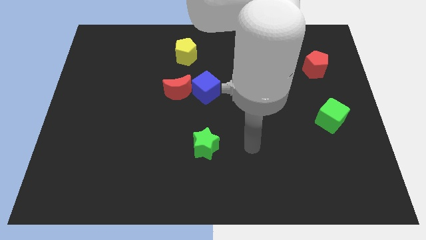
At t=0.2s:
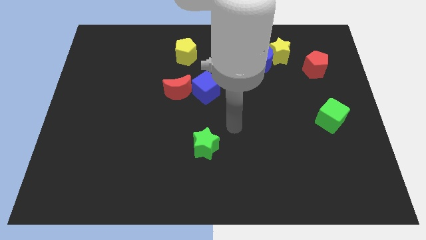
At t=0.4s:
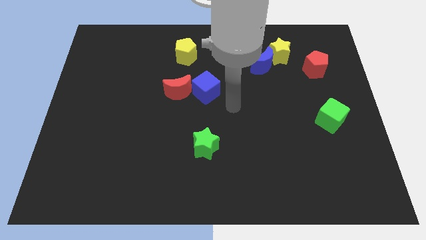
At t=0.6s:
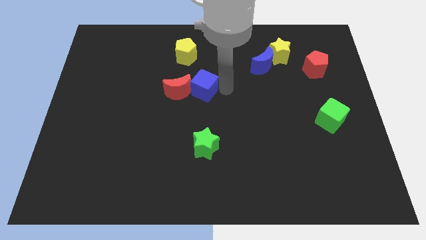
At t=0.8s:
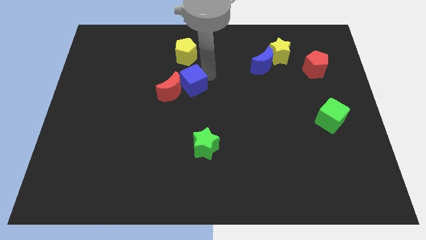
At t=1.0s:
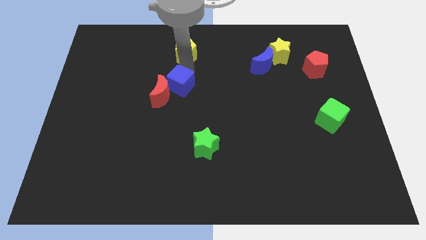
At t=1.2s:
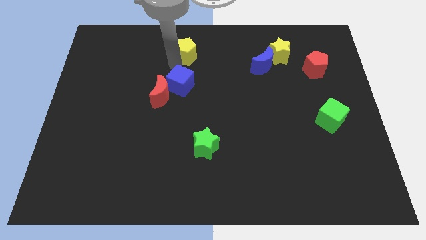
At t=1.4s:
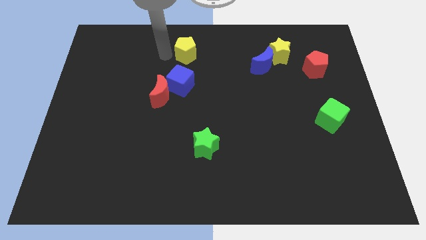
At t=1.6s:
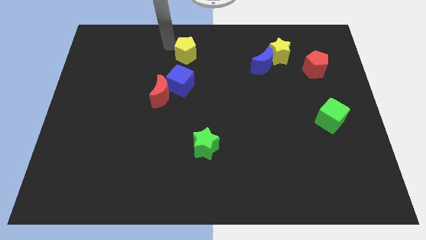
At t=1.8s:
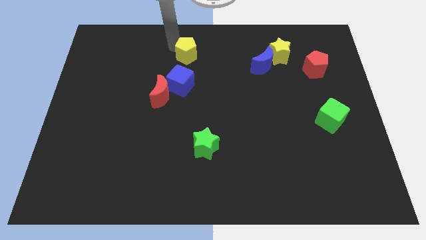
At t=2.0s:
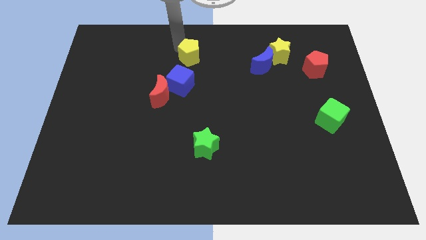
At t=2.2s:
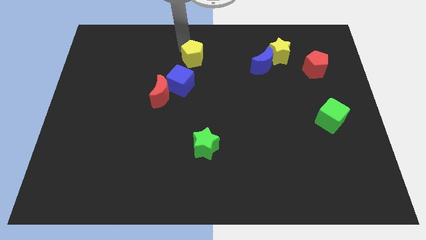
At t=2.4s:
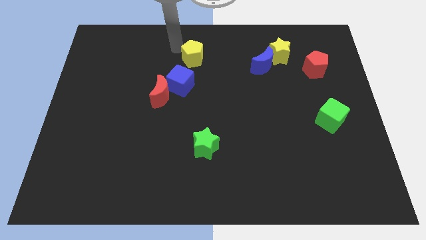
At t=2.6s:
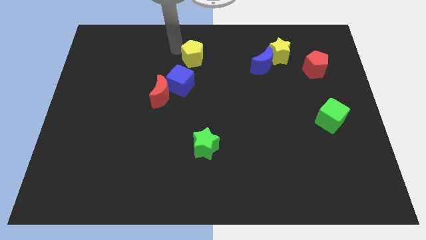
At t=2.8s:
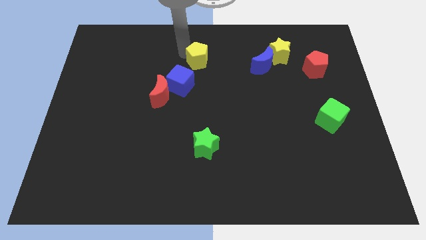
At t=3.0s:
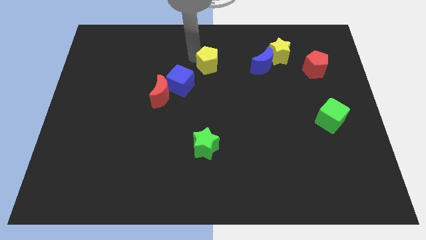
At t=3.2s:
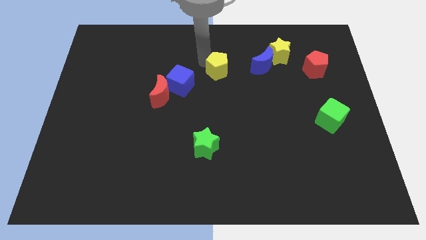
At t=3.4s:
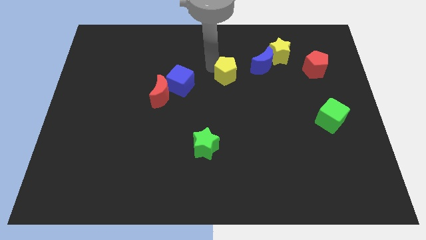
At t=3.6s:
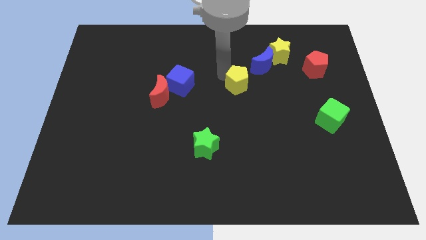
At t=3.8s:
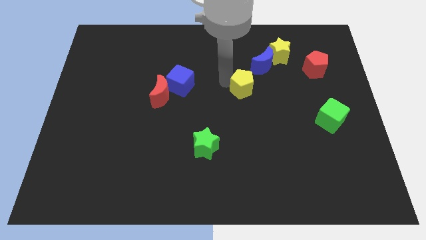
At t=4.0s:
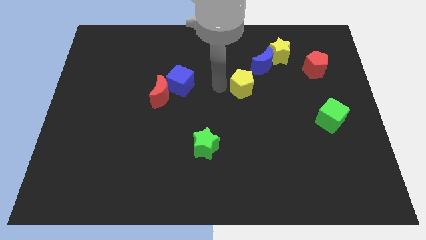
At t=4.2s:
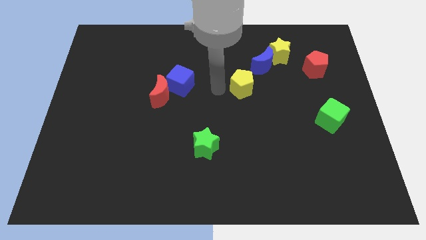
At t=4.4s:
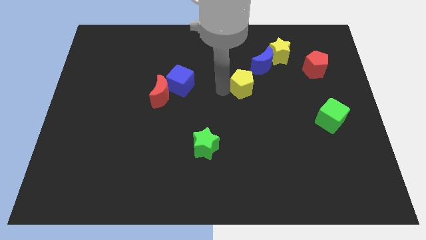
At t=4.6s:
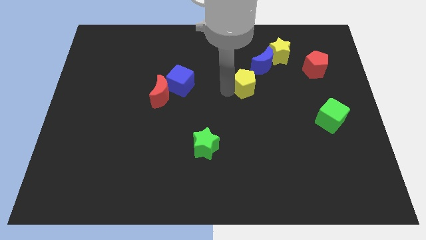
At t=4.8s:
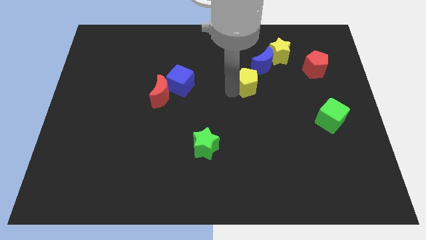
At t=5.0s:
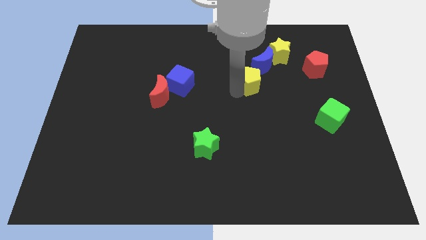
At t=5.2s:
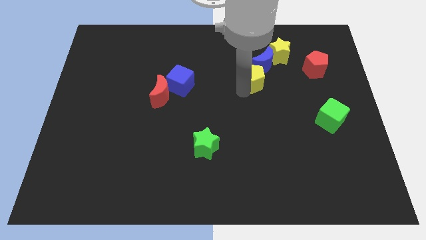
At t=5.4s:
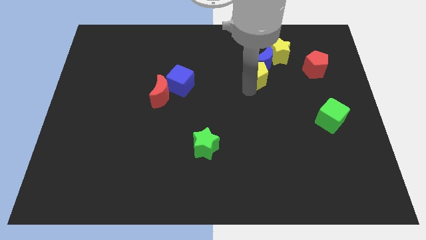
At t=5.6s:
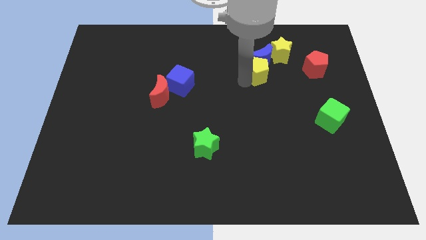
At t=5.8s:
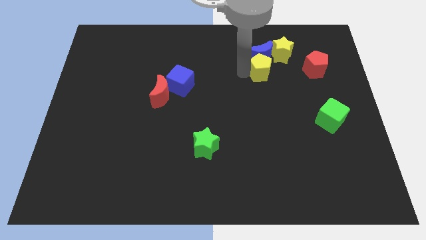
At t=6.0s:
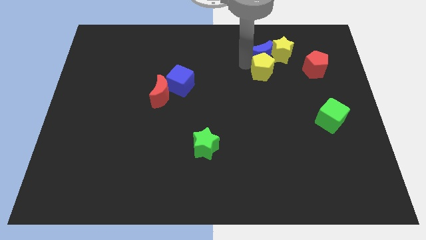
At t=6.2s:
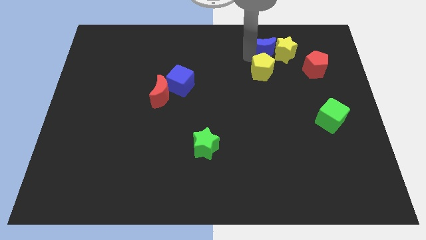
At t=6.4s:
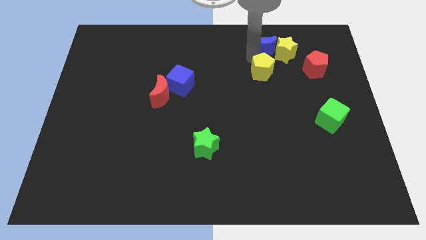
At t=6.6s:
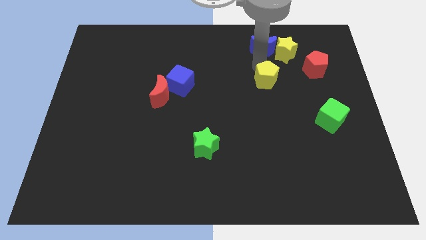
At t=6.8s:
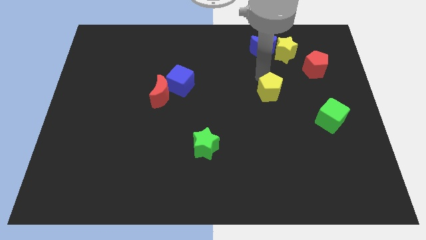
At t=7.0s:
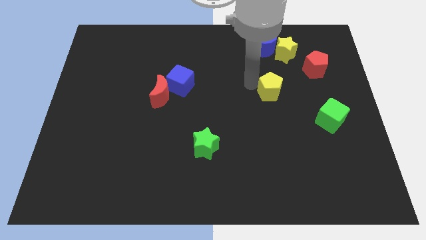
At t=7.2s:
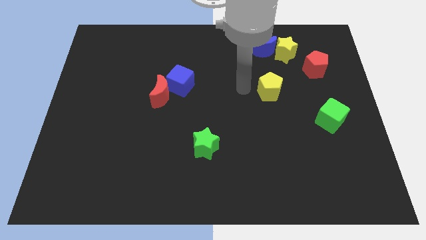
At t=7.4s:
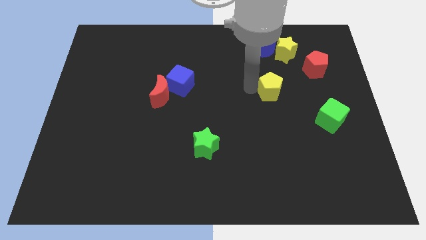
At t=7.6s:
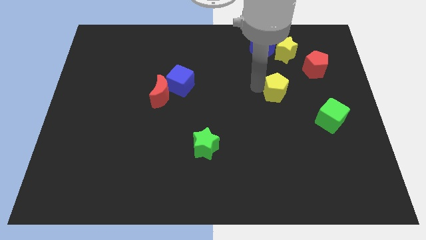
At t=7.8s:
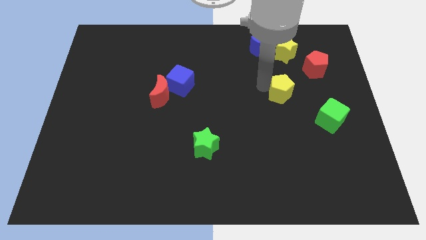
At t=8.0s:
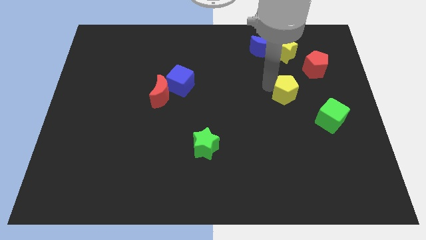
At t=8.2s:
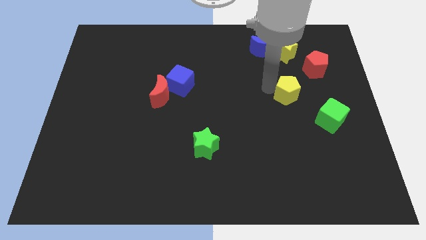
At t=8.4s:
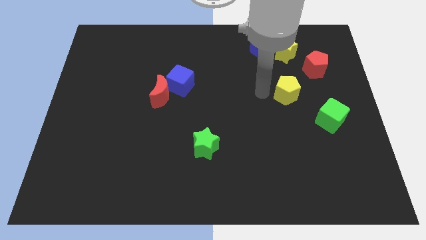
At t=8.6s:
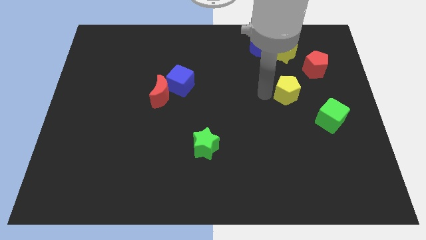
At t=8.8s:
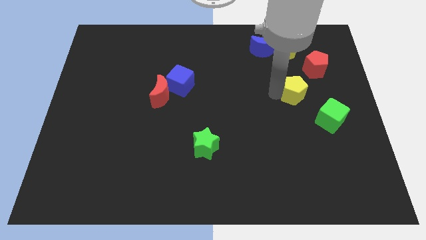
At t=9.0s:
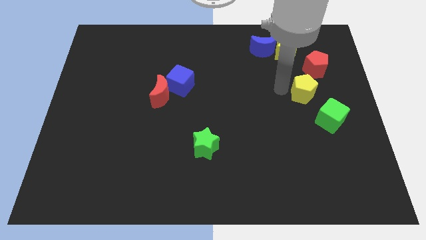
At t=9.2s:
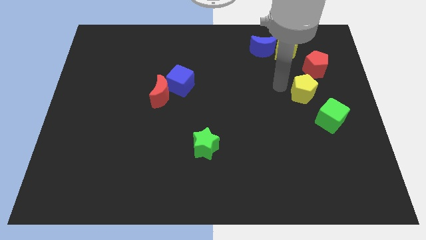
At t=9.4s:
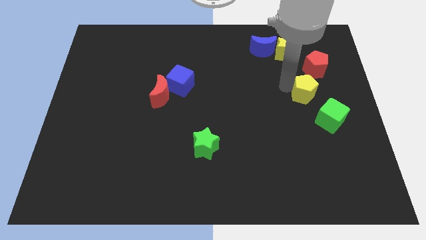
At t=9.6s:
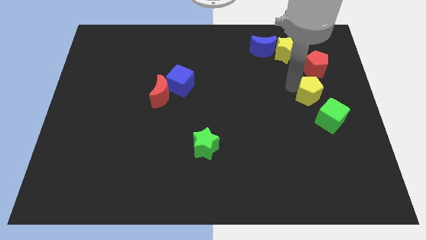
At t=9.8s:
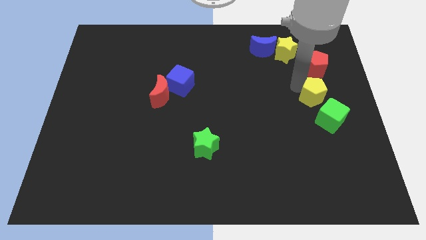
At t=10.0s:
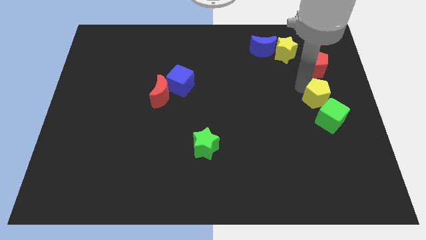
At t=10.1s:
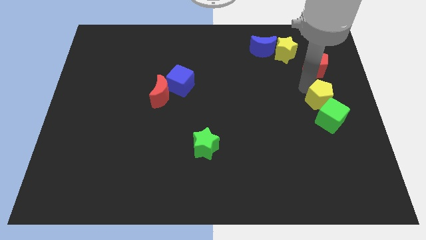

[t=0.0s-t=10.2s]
slide the yellow pentagon to the center right

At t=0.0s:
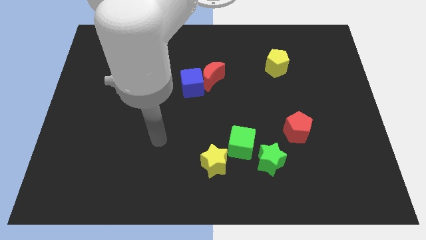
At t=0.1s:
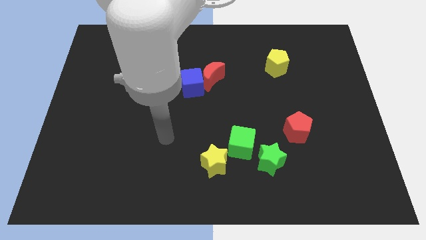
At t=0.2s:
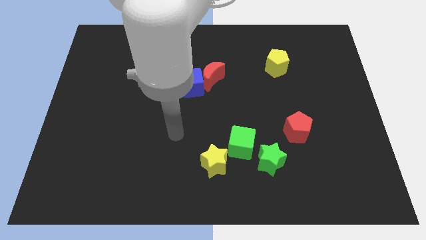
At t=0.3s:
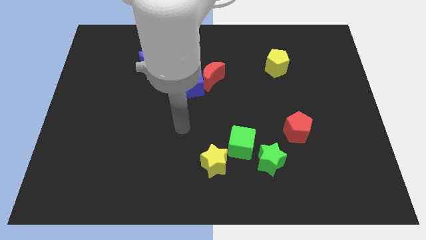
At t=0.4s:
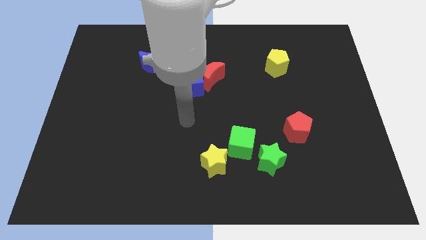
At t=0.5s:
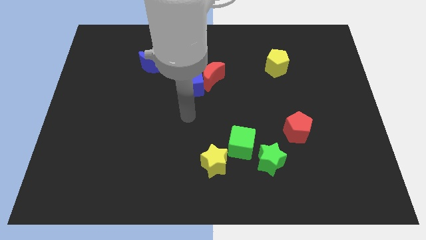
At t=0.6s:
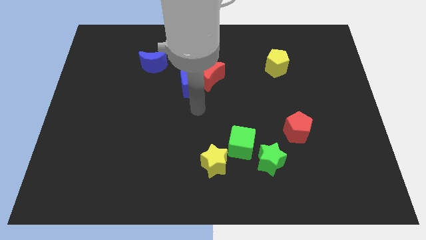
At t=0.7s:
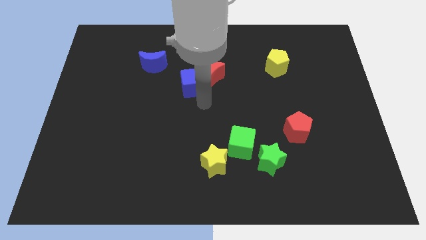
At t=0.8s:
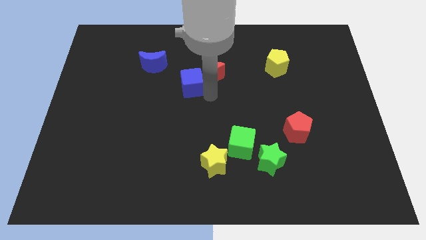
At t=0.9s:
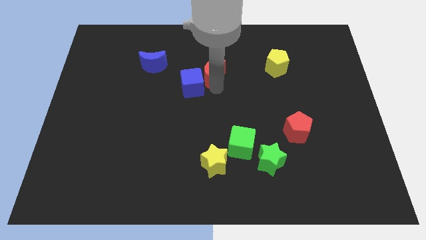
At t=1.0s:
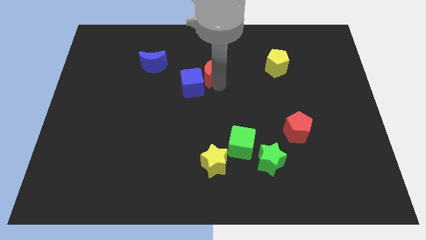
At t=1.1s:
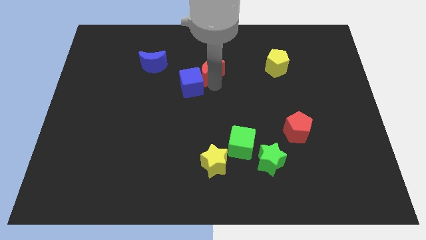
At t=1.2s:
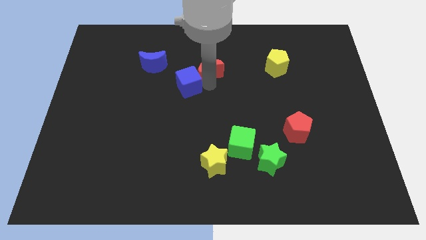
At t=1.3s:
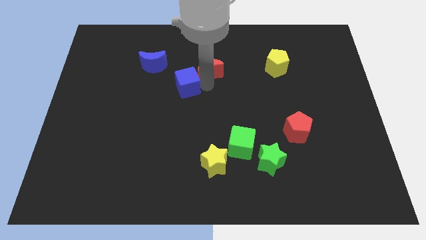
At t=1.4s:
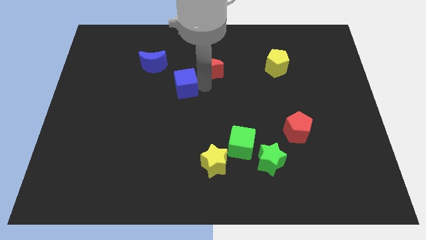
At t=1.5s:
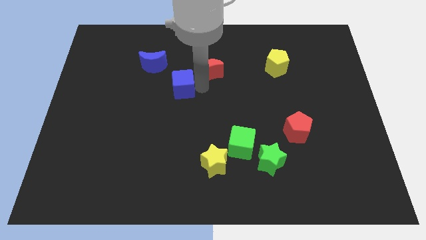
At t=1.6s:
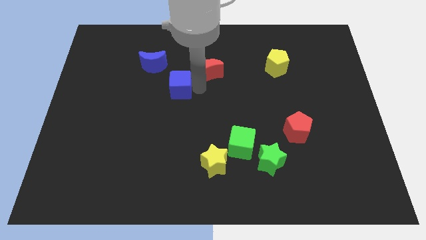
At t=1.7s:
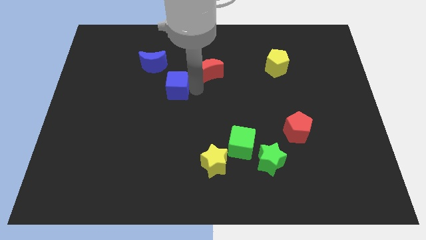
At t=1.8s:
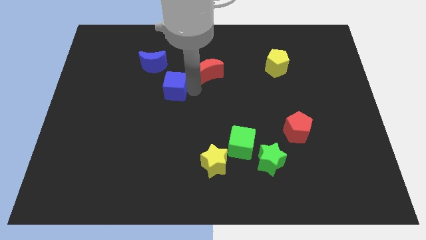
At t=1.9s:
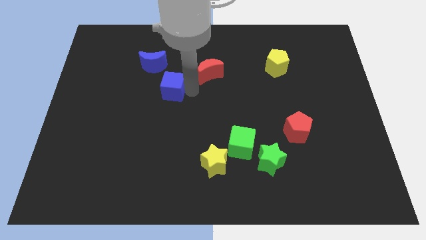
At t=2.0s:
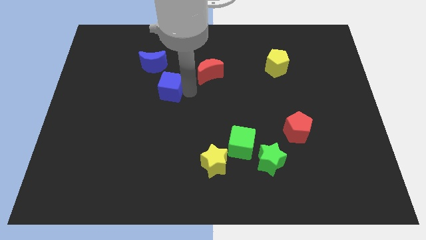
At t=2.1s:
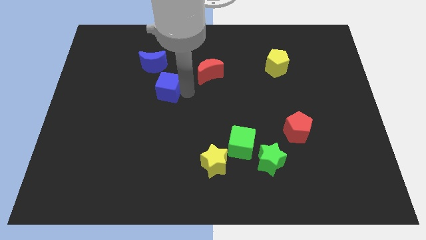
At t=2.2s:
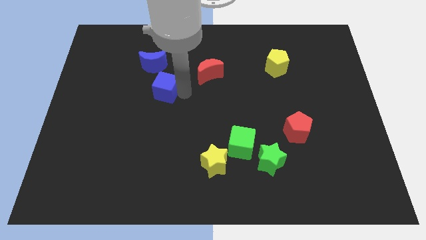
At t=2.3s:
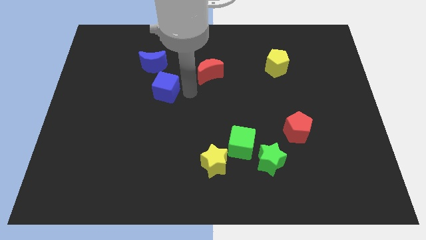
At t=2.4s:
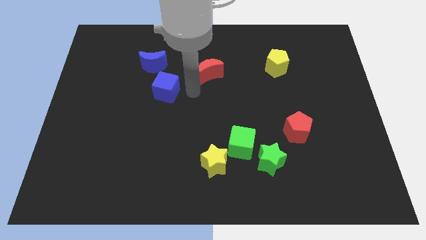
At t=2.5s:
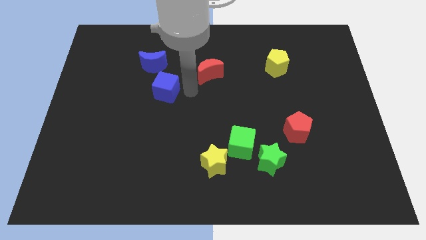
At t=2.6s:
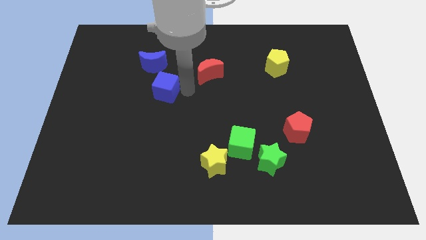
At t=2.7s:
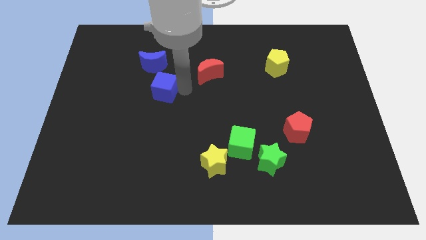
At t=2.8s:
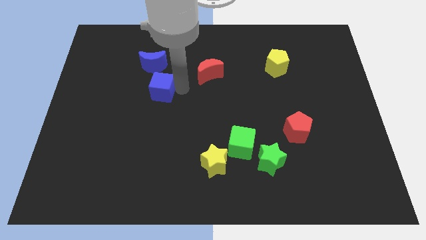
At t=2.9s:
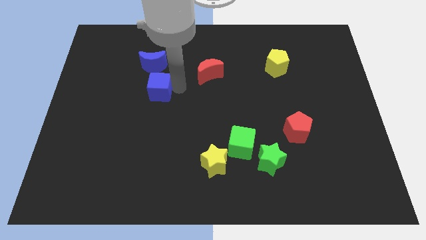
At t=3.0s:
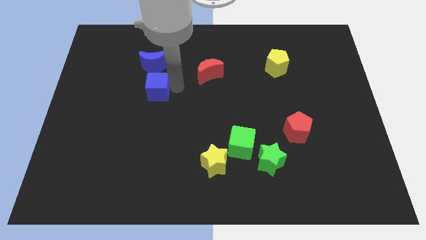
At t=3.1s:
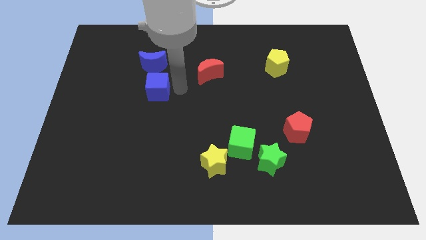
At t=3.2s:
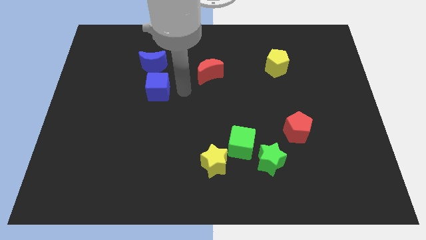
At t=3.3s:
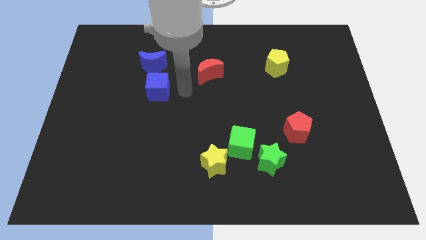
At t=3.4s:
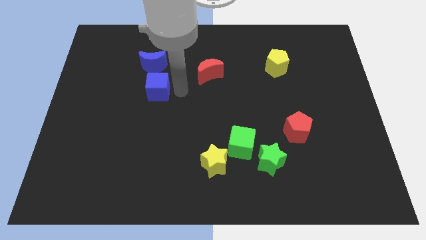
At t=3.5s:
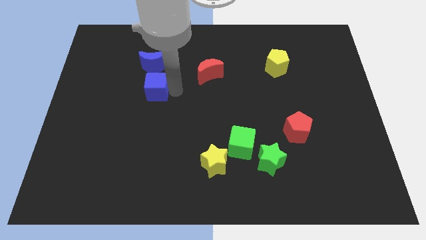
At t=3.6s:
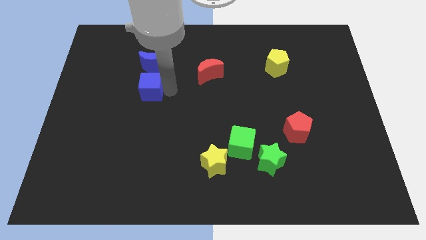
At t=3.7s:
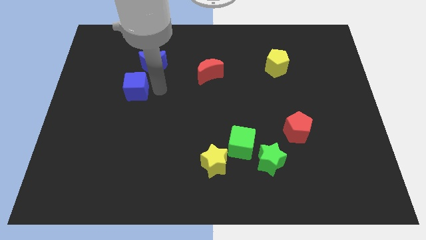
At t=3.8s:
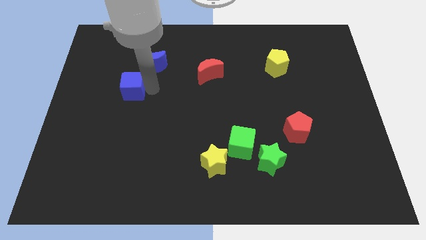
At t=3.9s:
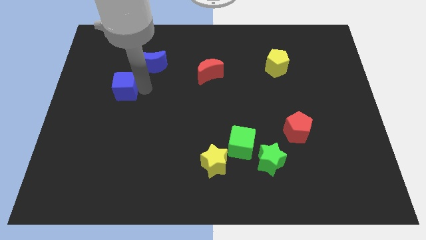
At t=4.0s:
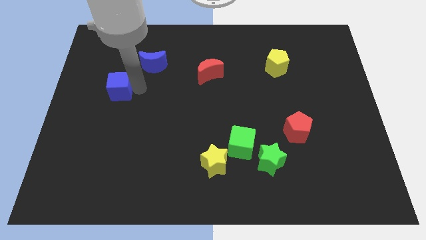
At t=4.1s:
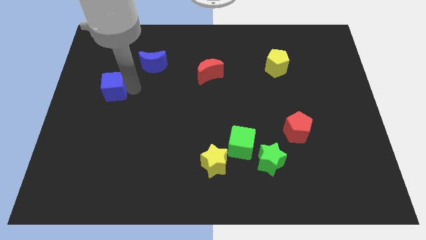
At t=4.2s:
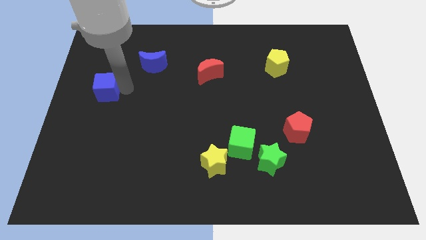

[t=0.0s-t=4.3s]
push the blue cube to the center left
